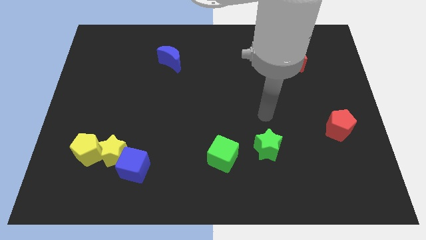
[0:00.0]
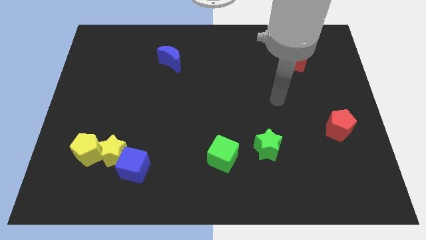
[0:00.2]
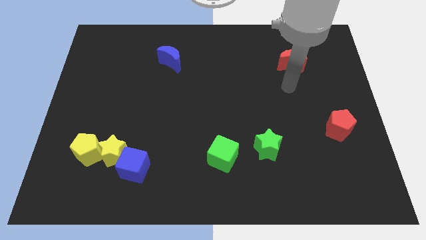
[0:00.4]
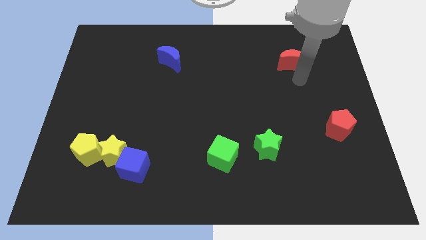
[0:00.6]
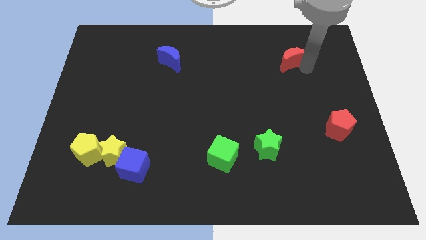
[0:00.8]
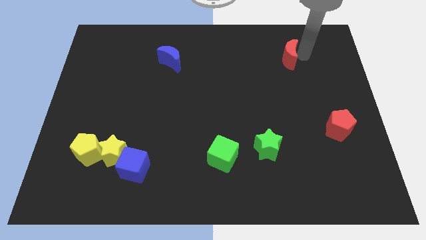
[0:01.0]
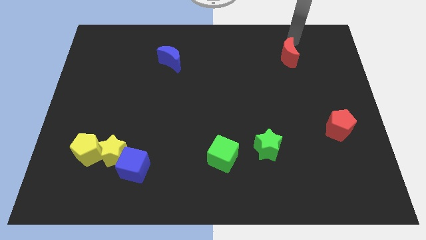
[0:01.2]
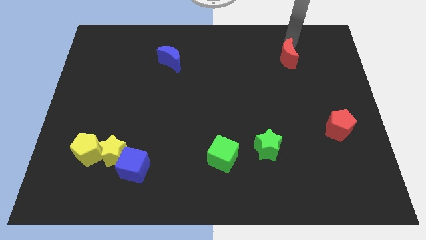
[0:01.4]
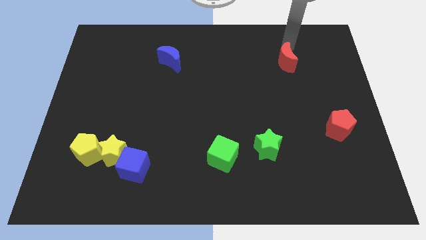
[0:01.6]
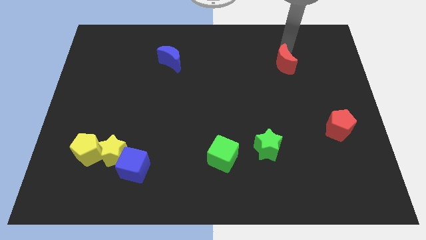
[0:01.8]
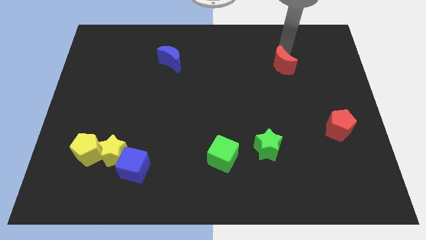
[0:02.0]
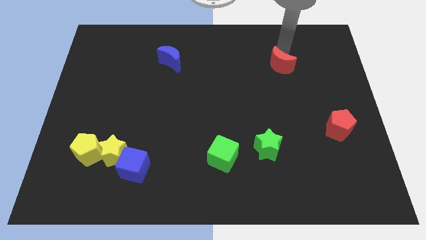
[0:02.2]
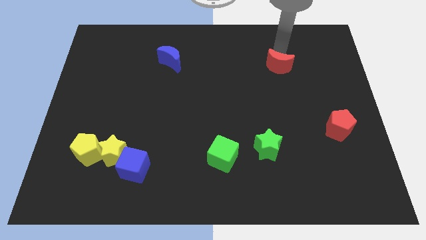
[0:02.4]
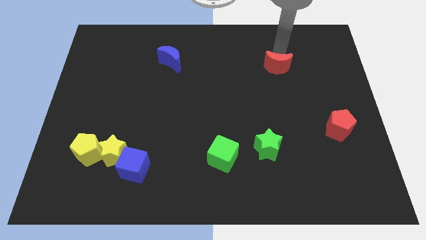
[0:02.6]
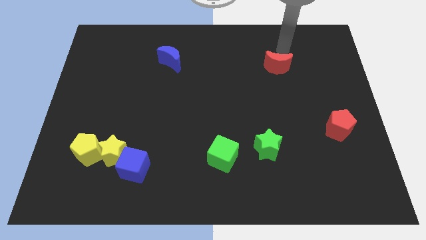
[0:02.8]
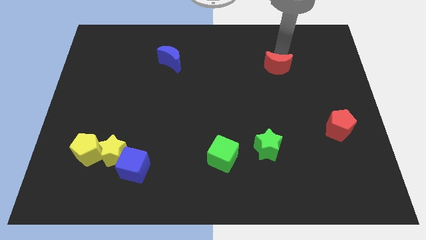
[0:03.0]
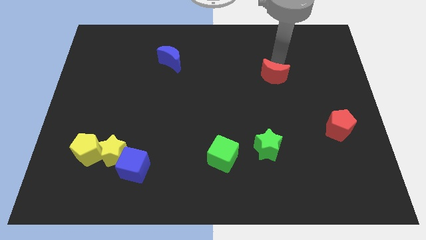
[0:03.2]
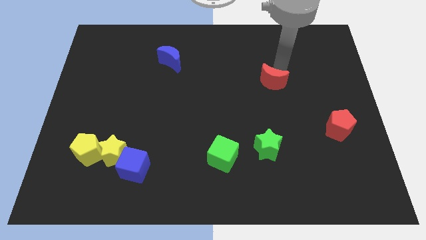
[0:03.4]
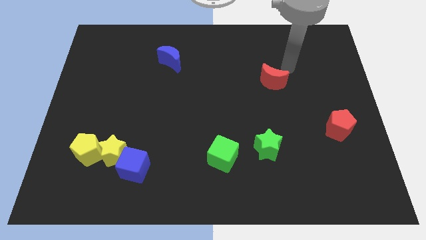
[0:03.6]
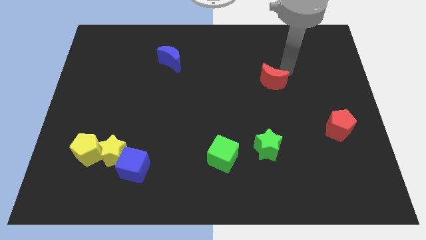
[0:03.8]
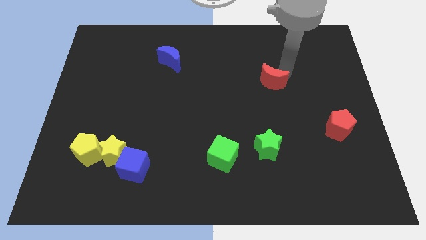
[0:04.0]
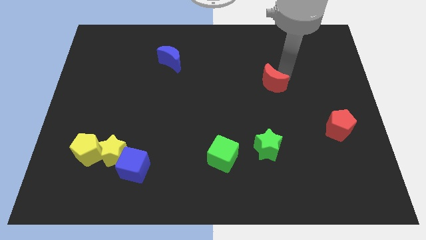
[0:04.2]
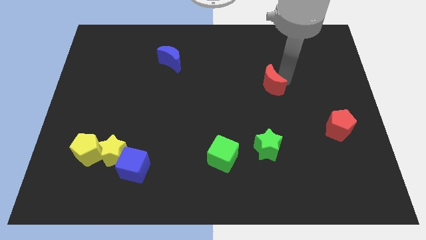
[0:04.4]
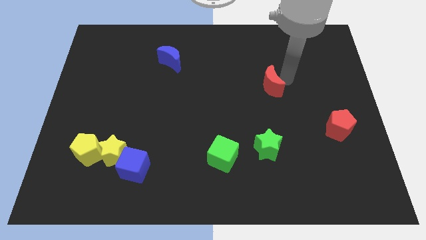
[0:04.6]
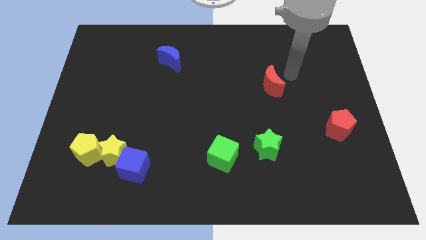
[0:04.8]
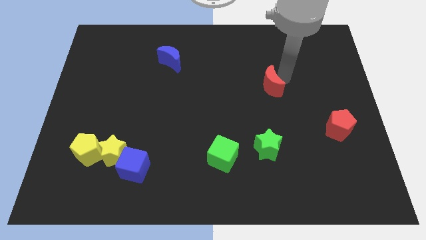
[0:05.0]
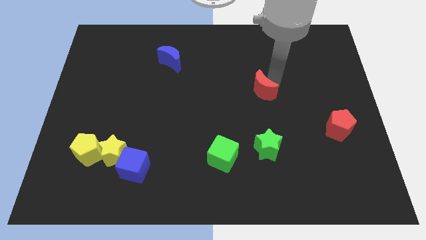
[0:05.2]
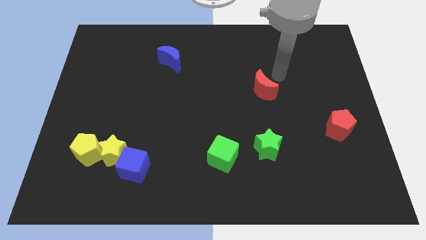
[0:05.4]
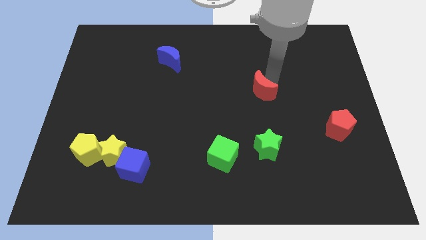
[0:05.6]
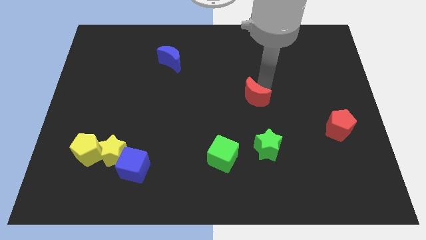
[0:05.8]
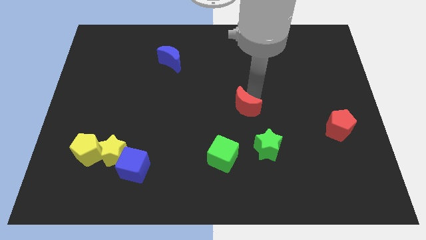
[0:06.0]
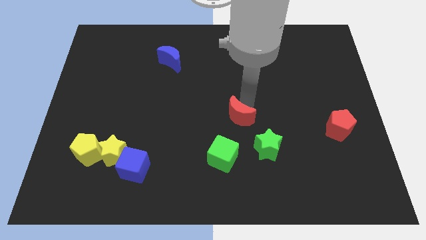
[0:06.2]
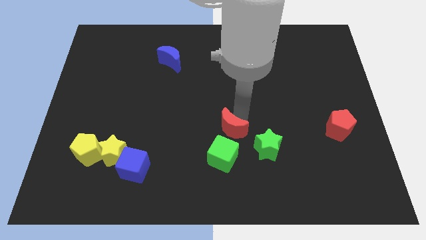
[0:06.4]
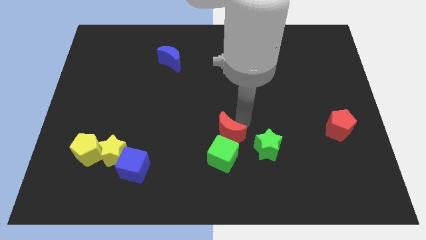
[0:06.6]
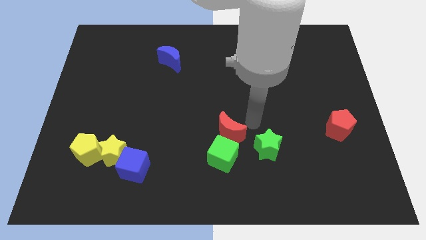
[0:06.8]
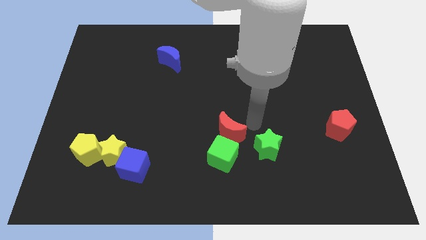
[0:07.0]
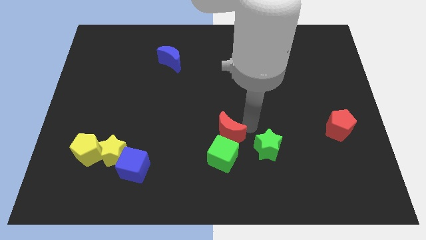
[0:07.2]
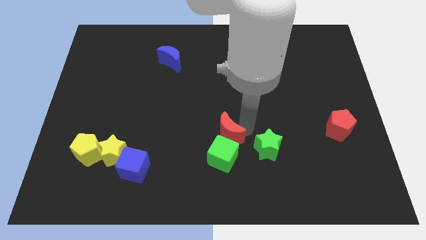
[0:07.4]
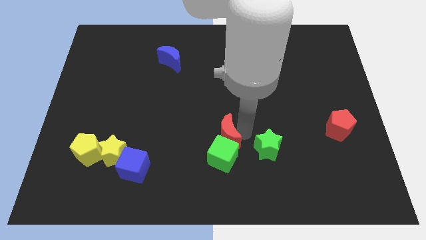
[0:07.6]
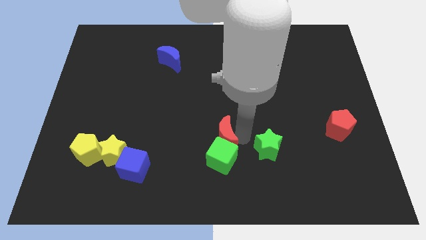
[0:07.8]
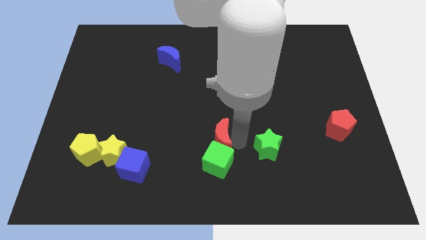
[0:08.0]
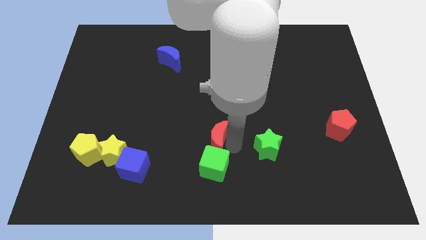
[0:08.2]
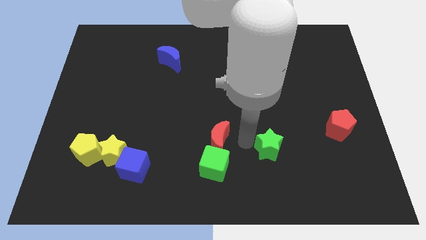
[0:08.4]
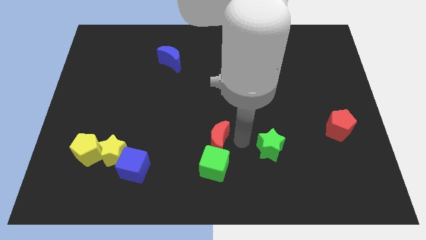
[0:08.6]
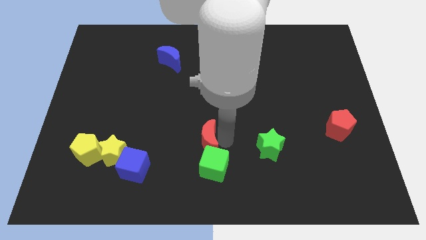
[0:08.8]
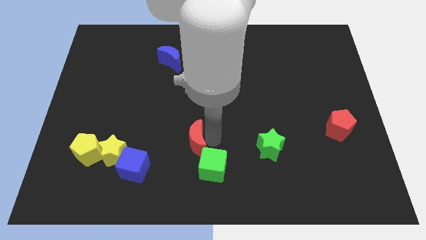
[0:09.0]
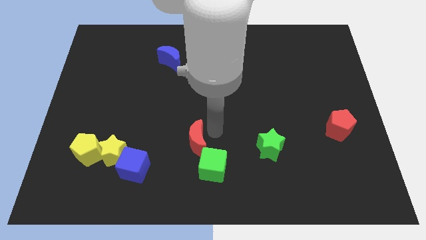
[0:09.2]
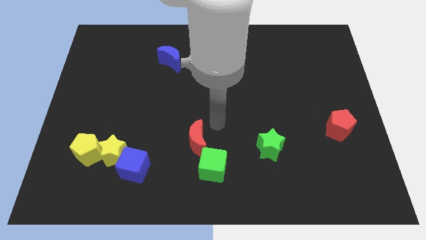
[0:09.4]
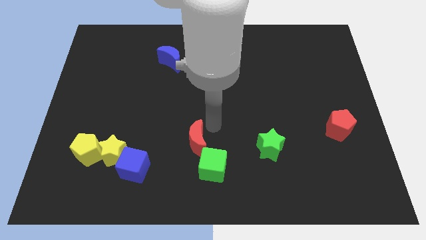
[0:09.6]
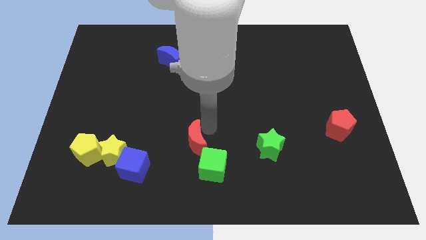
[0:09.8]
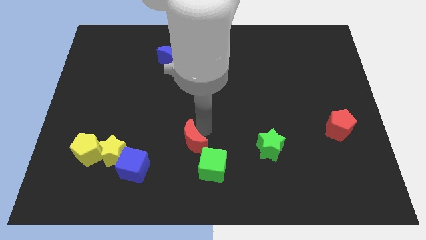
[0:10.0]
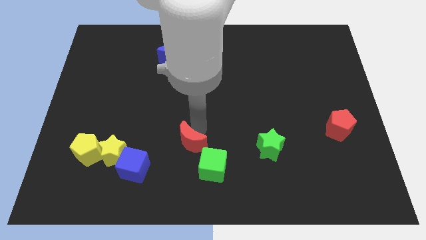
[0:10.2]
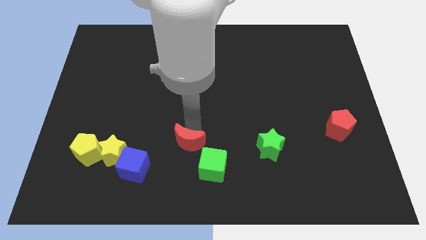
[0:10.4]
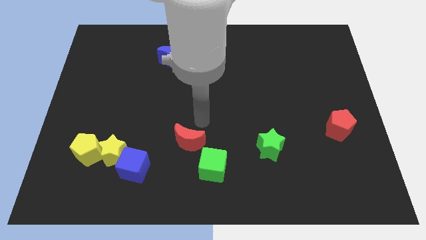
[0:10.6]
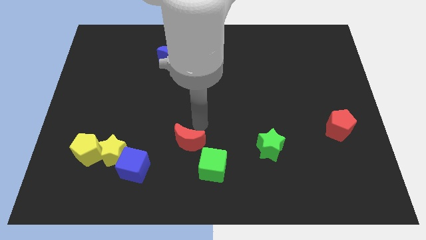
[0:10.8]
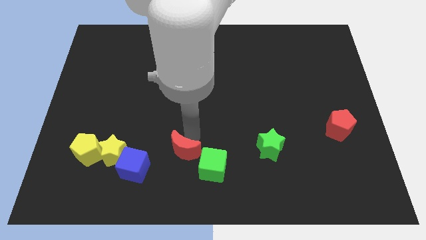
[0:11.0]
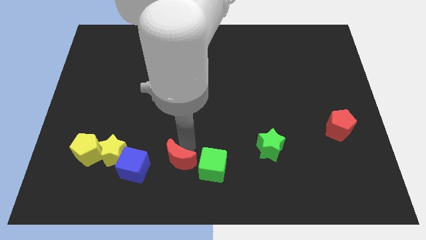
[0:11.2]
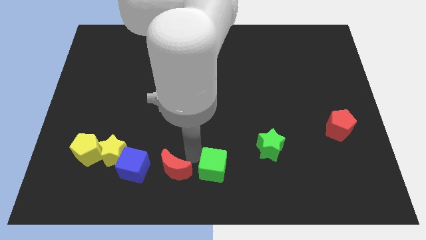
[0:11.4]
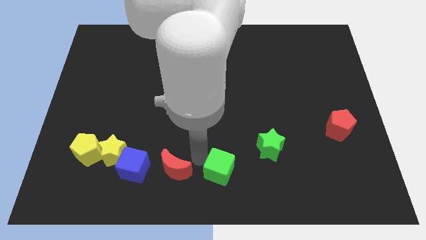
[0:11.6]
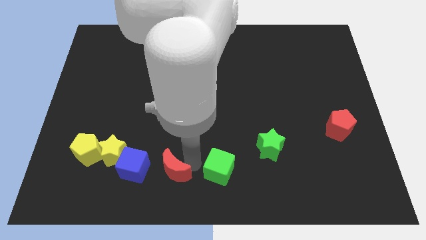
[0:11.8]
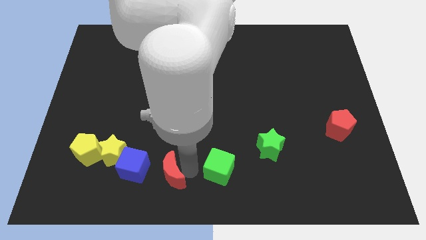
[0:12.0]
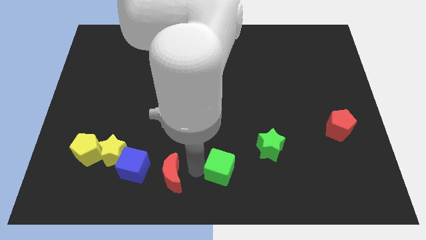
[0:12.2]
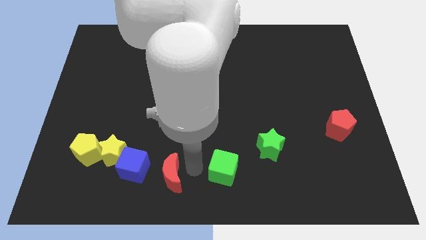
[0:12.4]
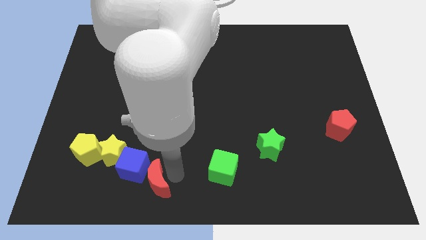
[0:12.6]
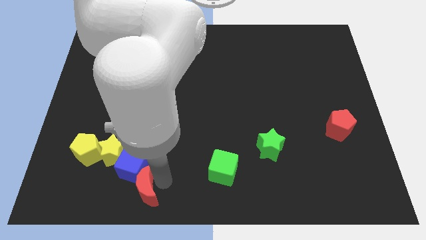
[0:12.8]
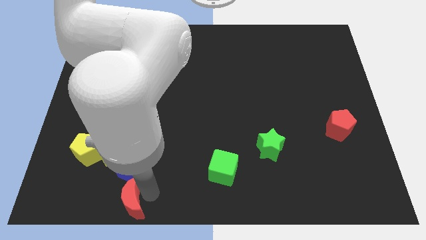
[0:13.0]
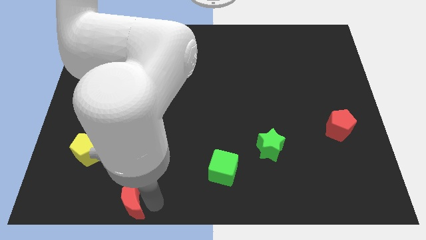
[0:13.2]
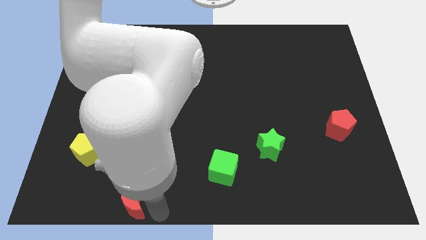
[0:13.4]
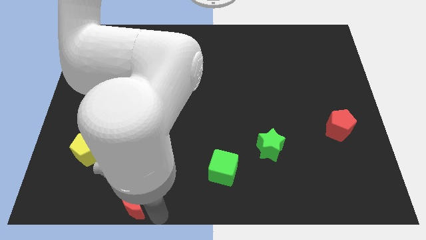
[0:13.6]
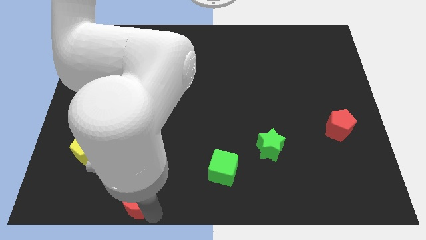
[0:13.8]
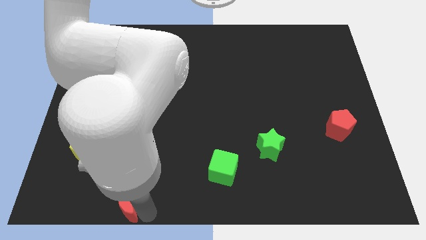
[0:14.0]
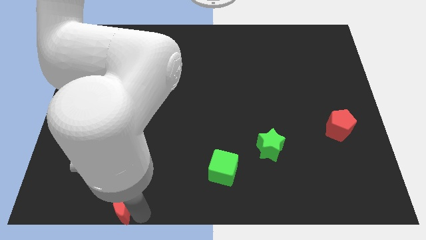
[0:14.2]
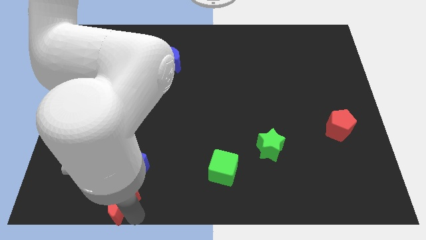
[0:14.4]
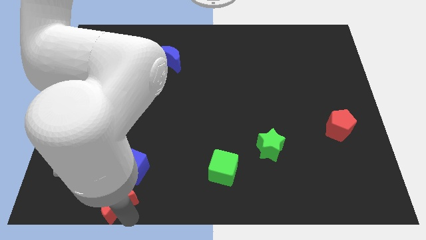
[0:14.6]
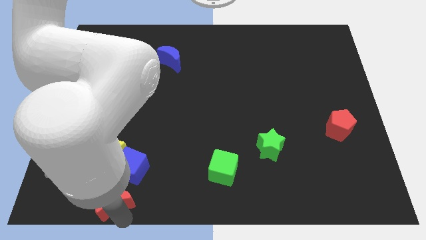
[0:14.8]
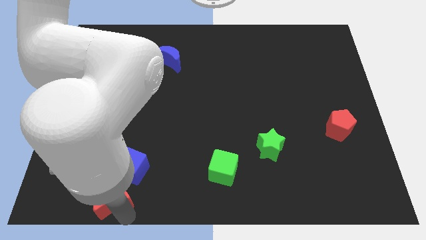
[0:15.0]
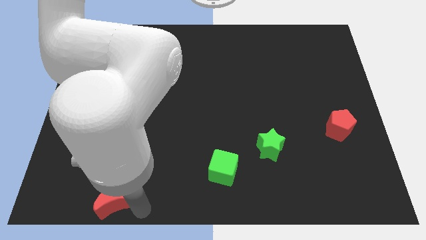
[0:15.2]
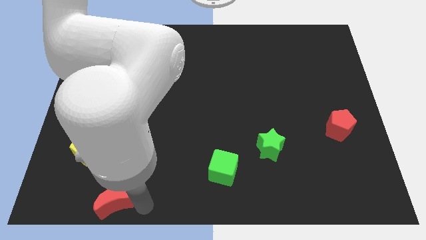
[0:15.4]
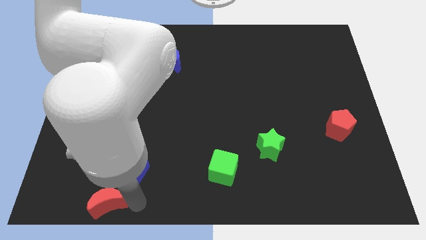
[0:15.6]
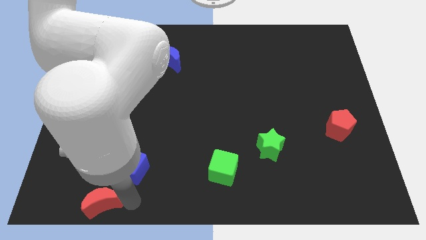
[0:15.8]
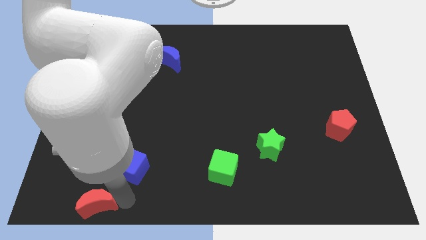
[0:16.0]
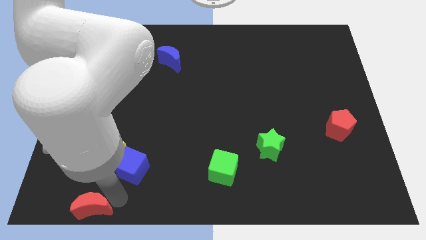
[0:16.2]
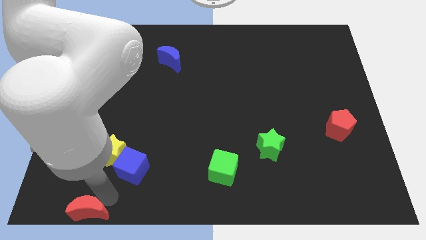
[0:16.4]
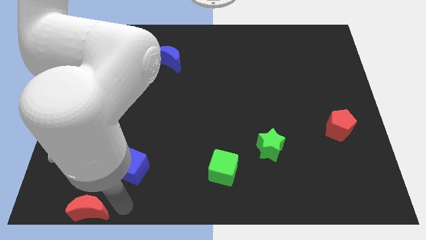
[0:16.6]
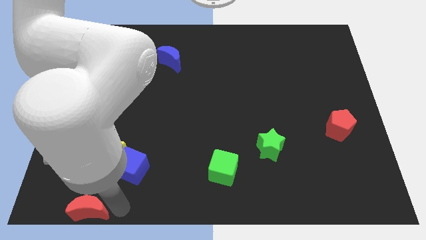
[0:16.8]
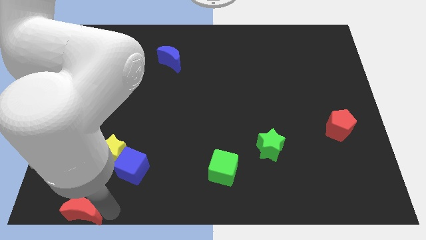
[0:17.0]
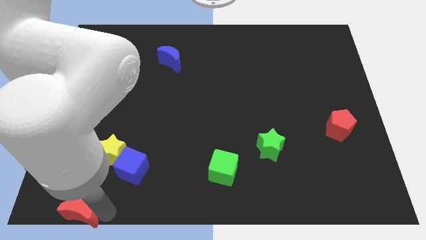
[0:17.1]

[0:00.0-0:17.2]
slide the red moon to the bottom left
